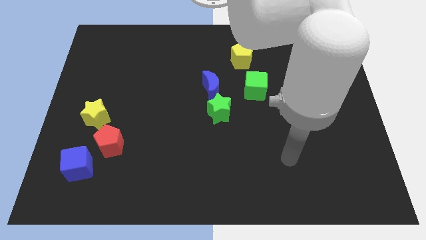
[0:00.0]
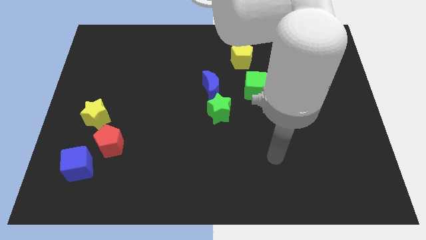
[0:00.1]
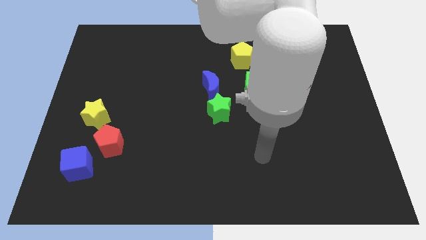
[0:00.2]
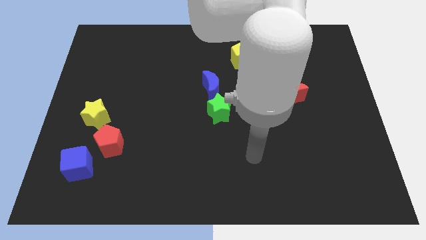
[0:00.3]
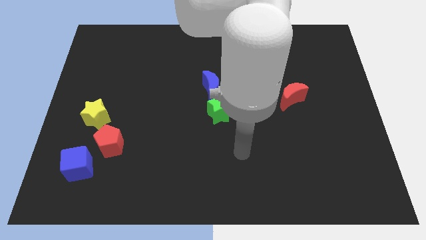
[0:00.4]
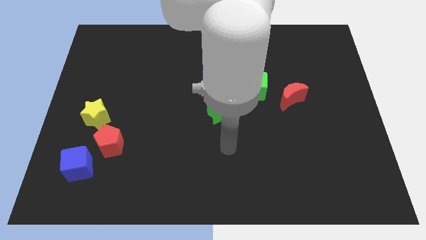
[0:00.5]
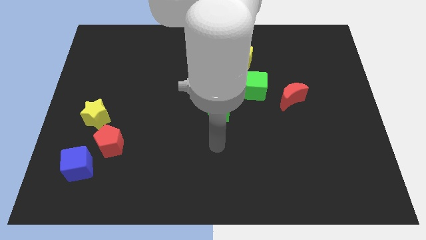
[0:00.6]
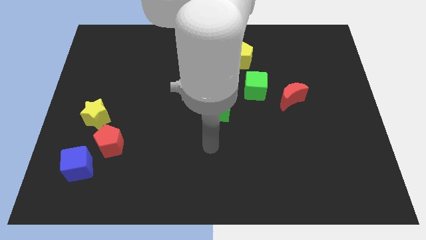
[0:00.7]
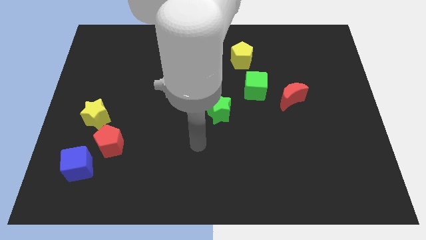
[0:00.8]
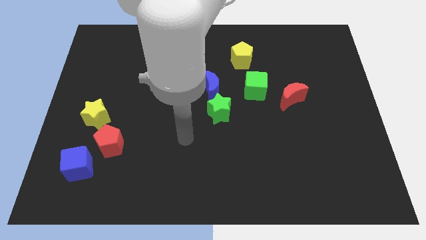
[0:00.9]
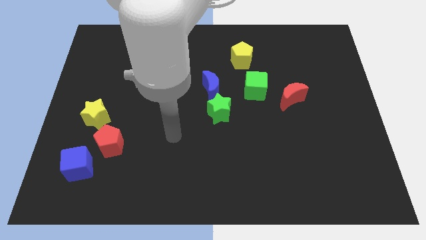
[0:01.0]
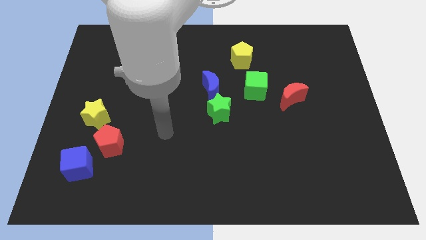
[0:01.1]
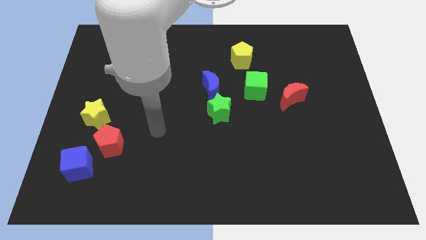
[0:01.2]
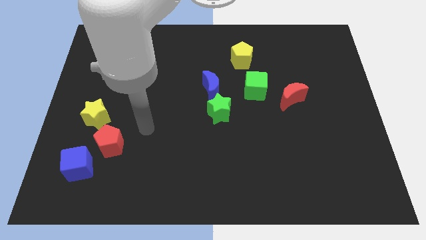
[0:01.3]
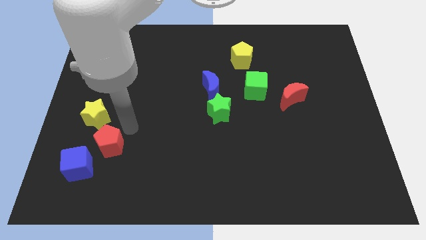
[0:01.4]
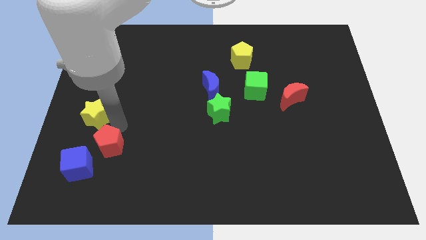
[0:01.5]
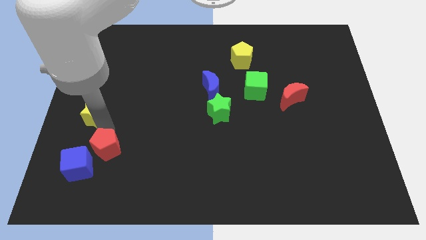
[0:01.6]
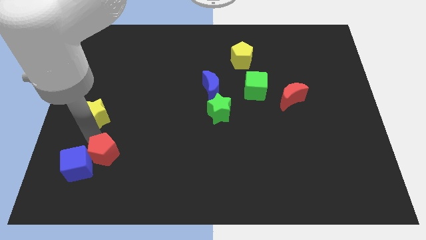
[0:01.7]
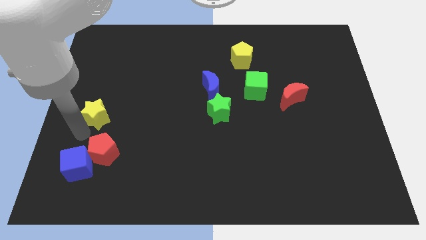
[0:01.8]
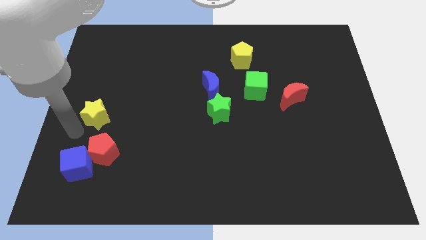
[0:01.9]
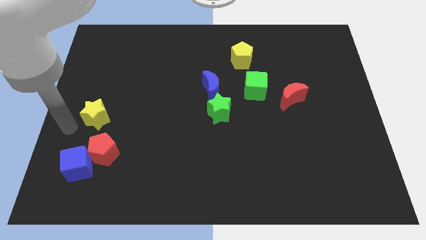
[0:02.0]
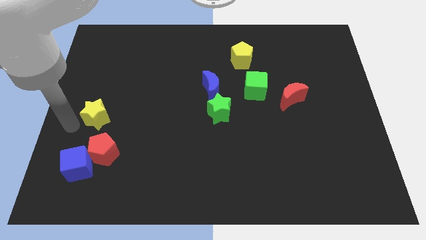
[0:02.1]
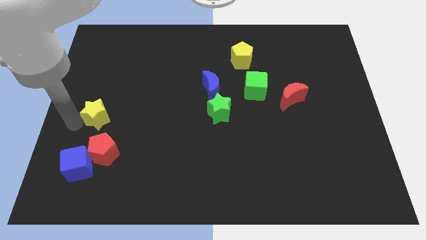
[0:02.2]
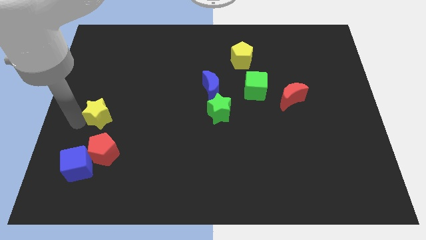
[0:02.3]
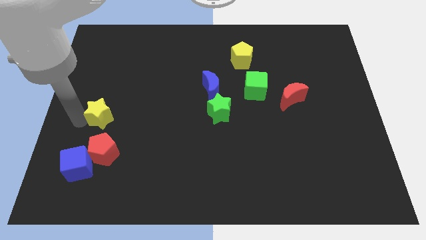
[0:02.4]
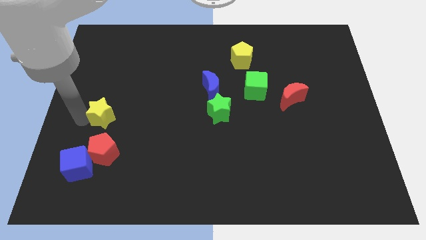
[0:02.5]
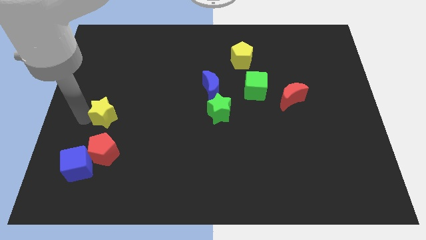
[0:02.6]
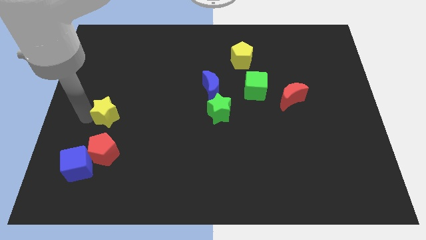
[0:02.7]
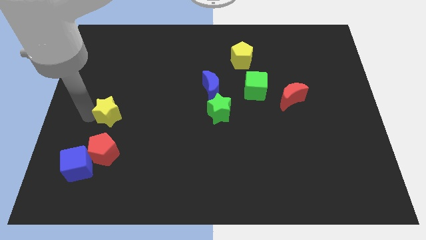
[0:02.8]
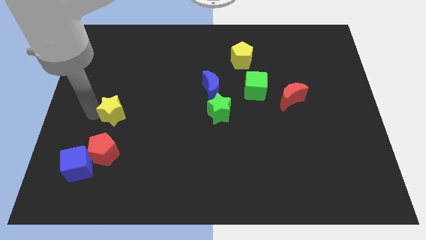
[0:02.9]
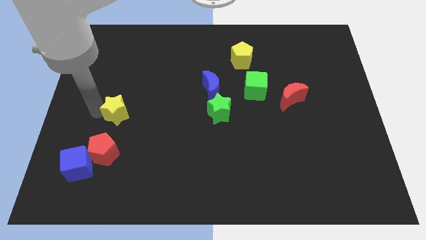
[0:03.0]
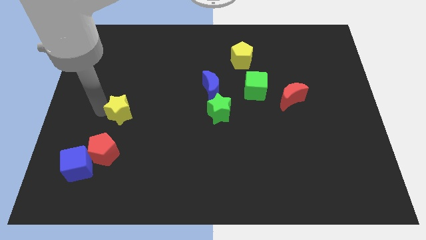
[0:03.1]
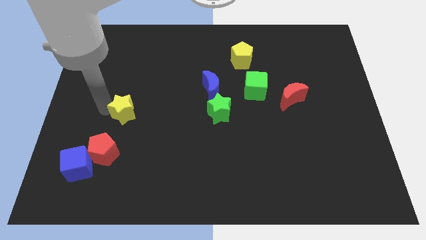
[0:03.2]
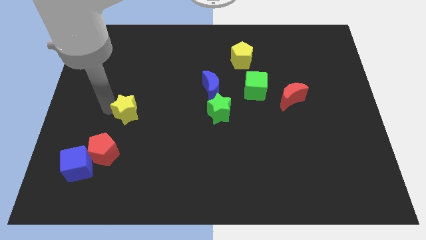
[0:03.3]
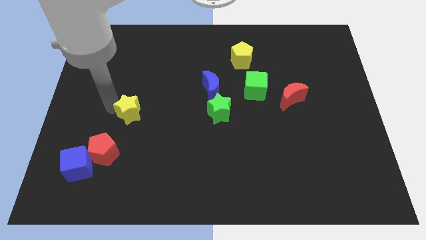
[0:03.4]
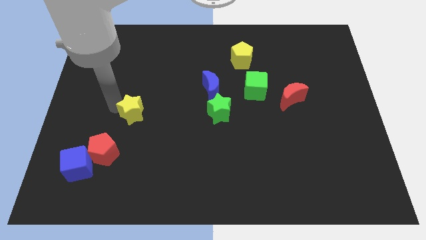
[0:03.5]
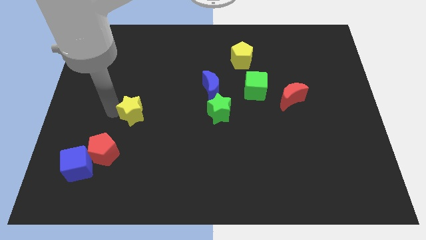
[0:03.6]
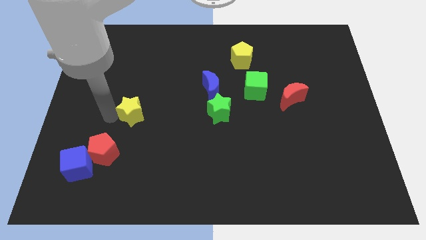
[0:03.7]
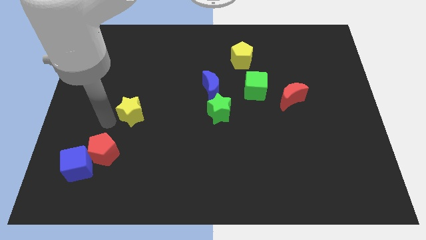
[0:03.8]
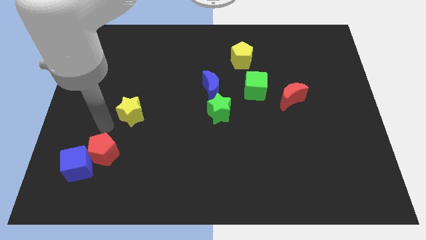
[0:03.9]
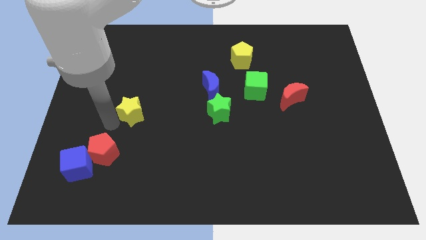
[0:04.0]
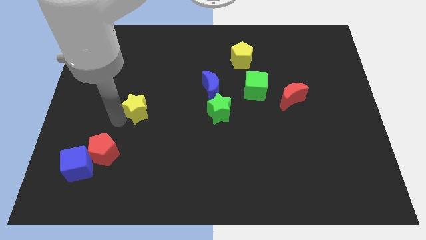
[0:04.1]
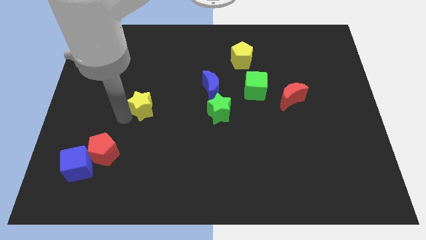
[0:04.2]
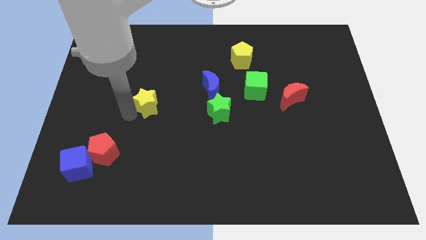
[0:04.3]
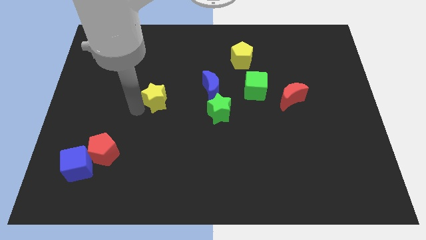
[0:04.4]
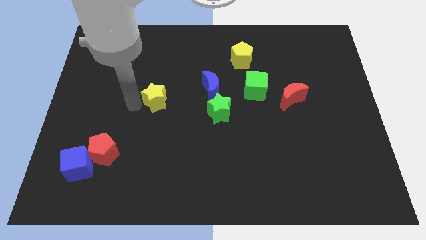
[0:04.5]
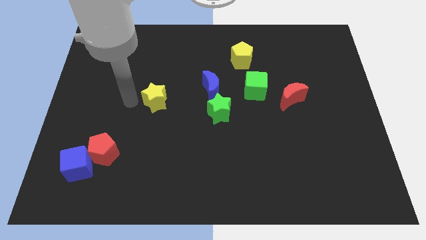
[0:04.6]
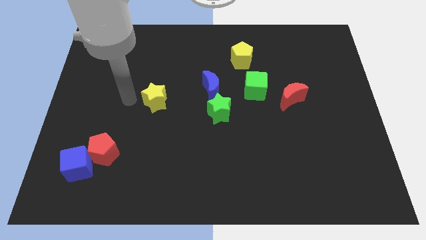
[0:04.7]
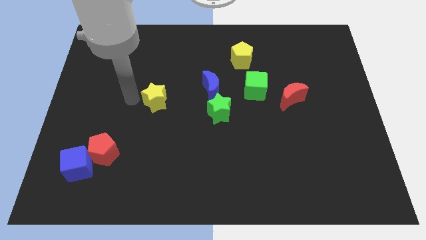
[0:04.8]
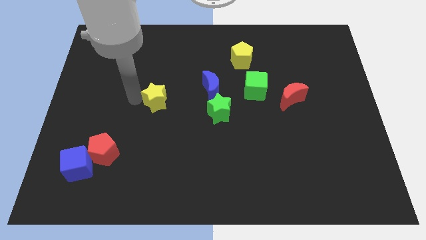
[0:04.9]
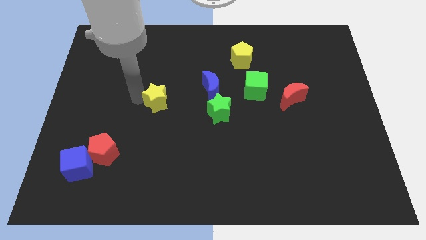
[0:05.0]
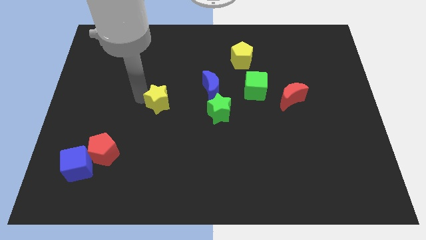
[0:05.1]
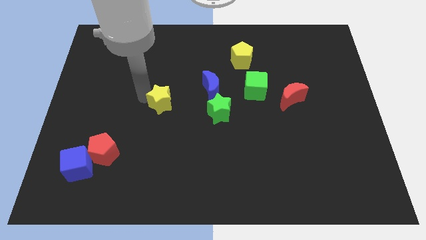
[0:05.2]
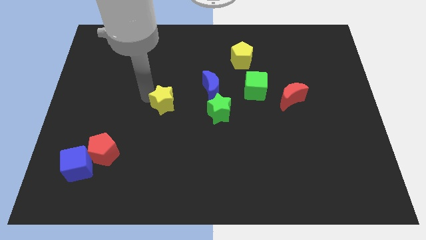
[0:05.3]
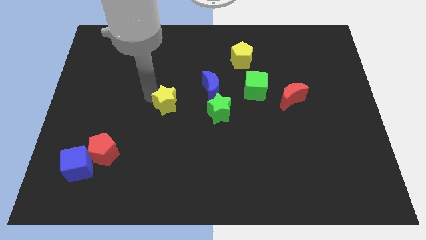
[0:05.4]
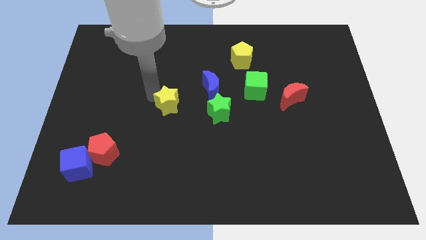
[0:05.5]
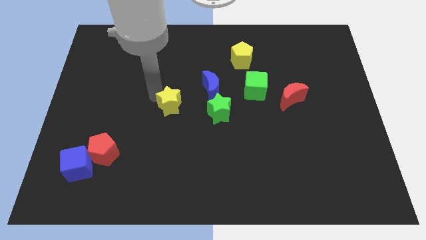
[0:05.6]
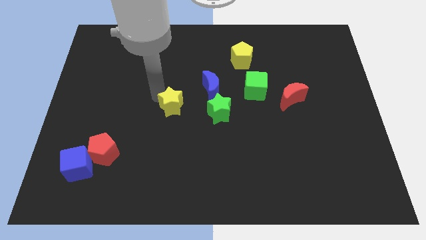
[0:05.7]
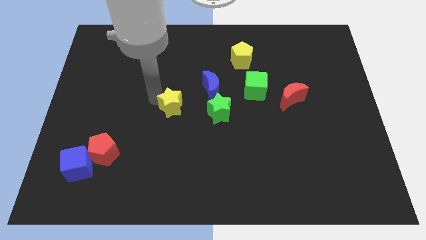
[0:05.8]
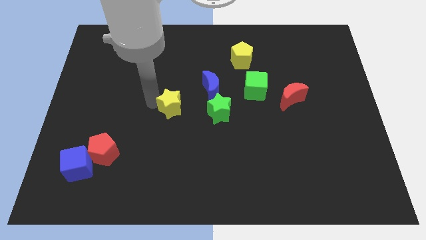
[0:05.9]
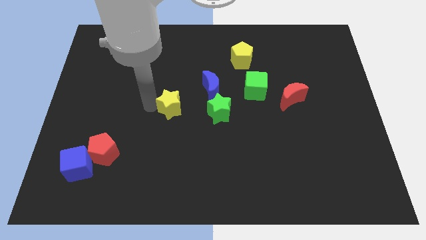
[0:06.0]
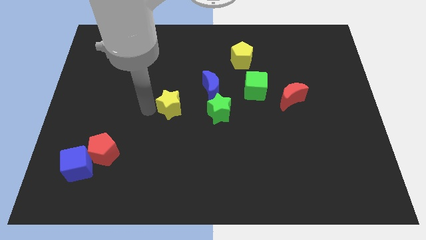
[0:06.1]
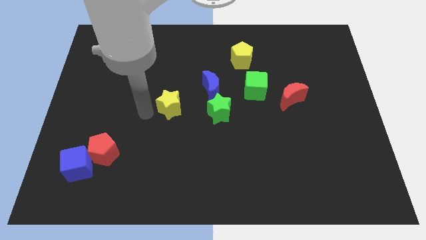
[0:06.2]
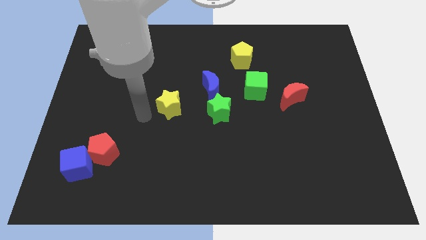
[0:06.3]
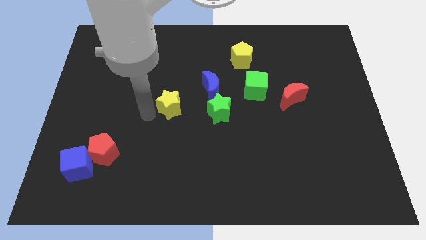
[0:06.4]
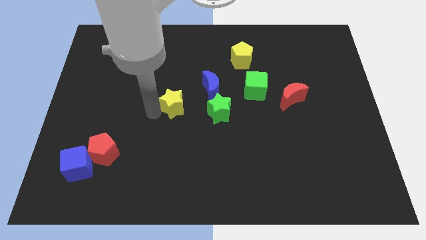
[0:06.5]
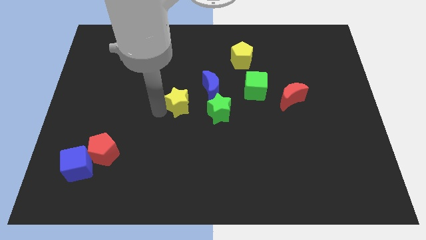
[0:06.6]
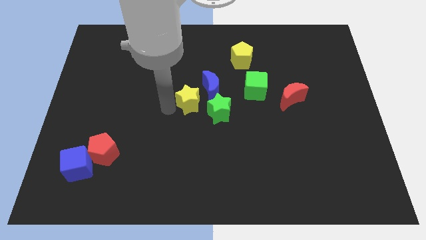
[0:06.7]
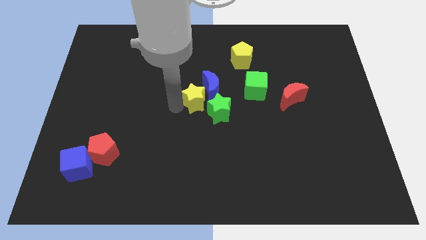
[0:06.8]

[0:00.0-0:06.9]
move the yellow star to the blue moon

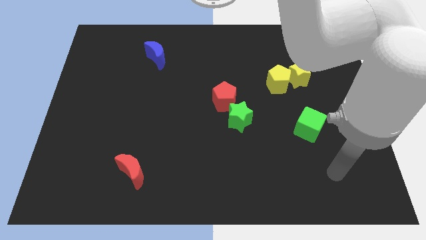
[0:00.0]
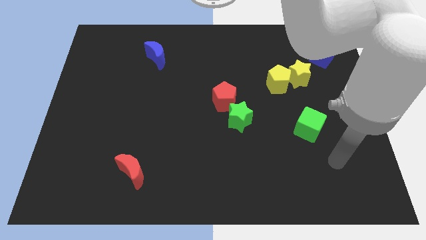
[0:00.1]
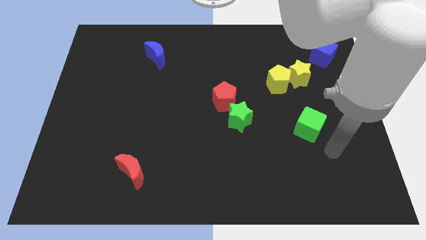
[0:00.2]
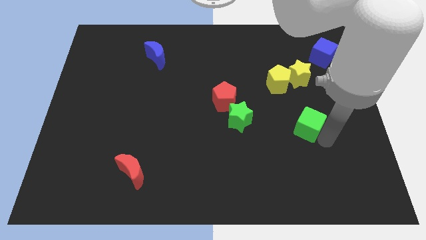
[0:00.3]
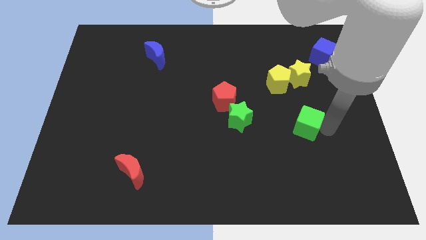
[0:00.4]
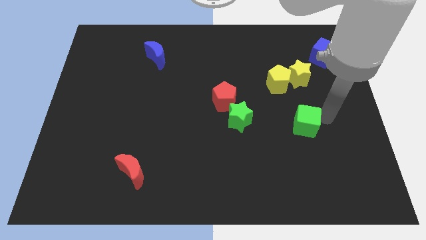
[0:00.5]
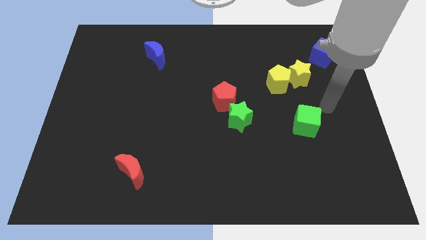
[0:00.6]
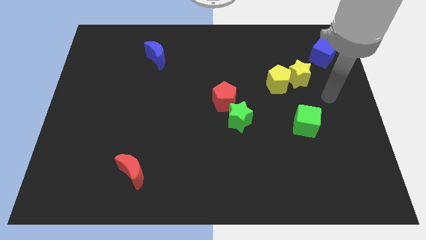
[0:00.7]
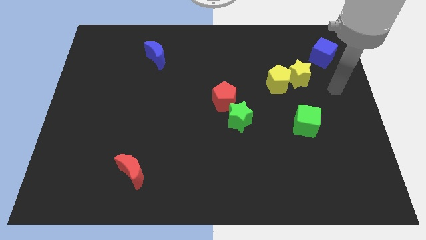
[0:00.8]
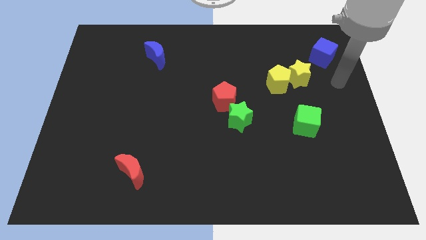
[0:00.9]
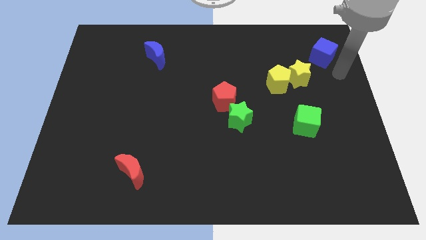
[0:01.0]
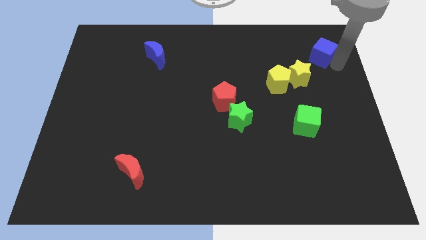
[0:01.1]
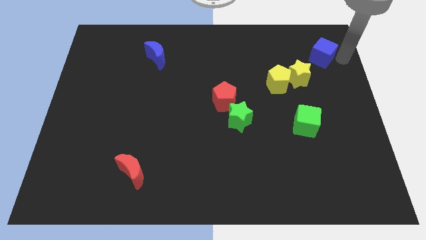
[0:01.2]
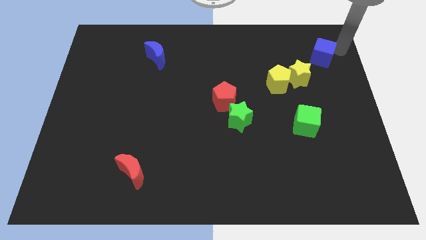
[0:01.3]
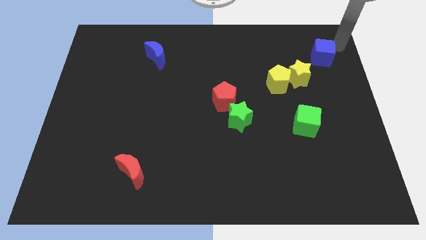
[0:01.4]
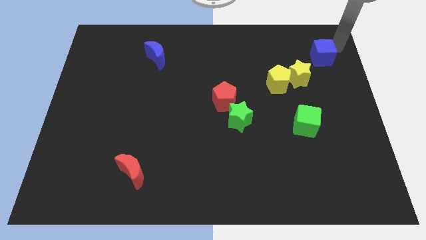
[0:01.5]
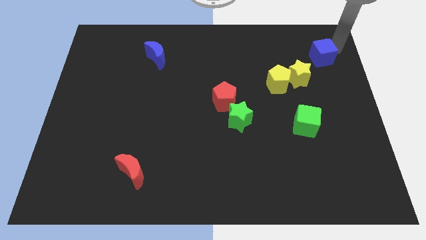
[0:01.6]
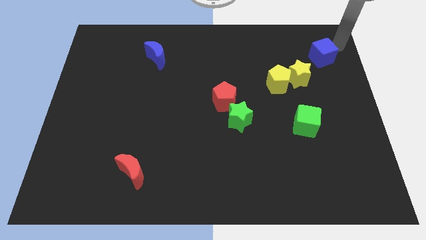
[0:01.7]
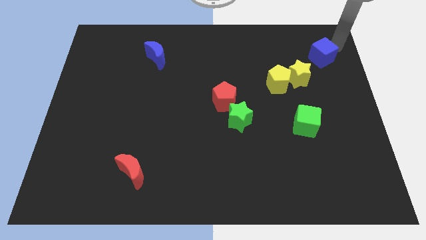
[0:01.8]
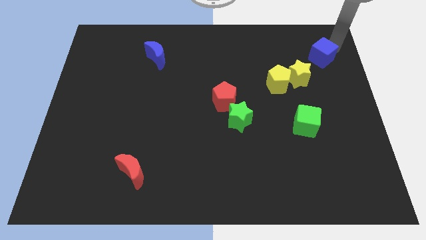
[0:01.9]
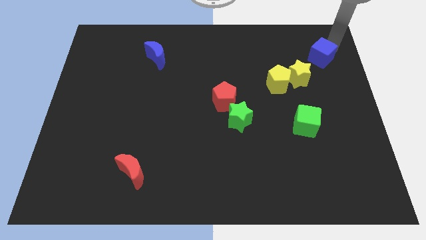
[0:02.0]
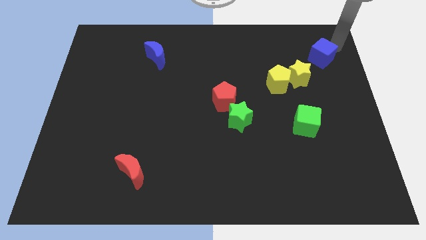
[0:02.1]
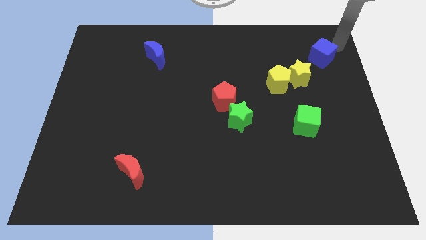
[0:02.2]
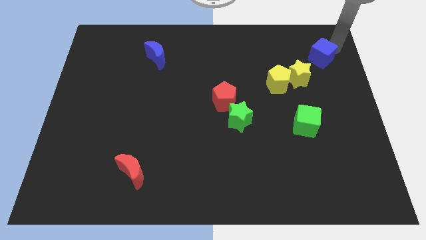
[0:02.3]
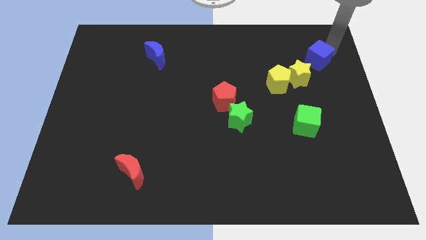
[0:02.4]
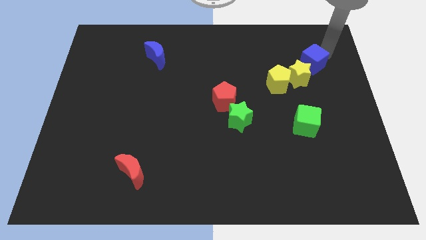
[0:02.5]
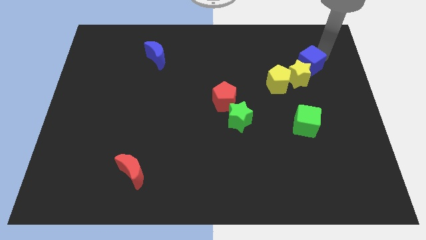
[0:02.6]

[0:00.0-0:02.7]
slide the blue cube towards the yellow star
